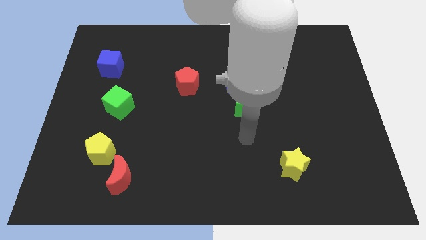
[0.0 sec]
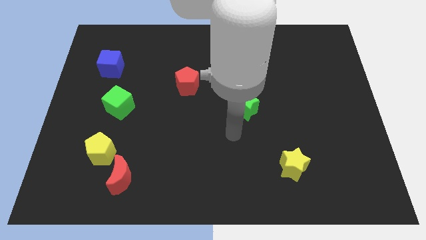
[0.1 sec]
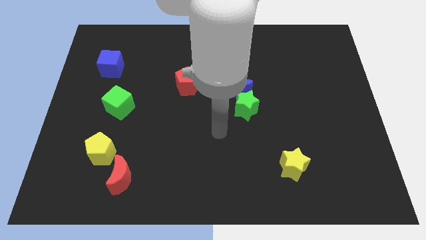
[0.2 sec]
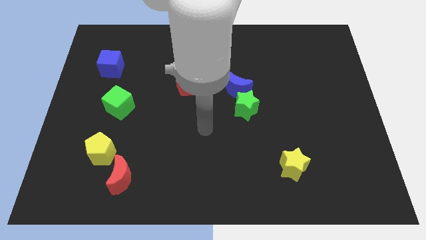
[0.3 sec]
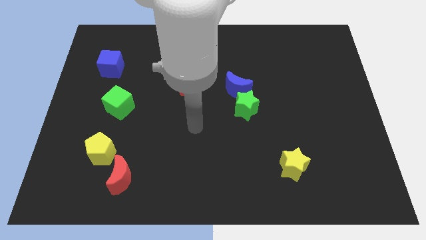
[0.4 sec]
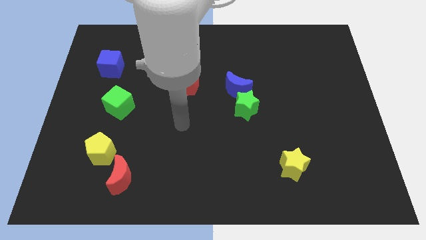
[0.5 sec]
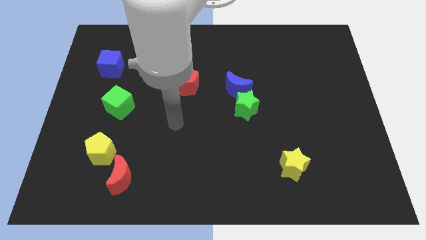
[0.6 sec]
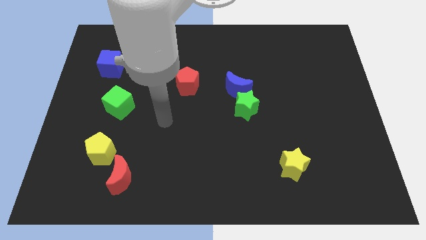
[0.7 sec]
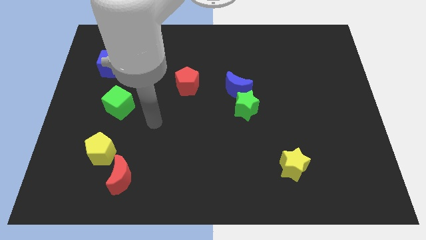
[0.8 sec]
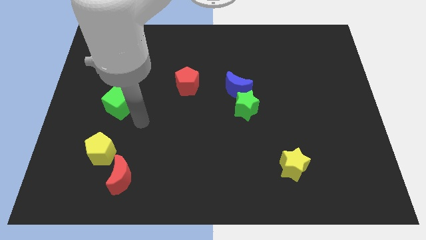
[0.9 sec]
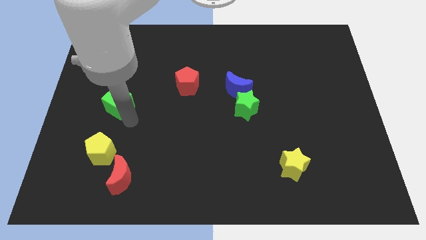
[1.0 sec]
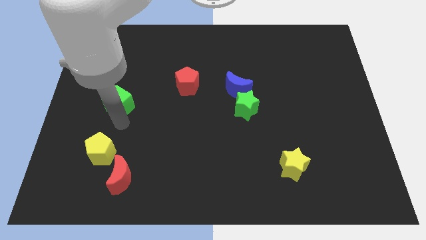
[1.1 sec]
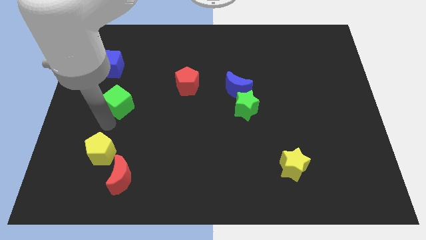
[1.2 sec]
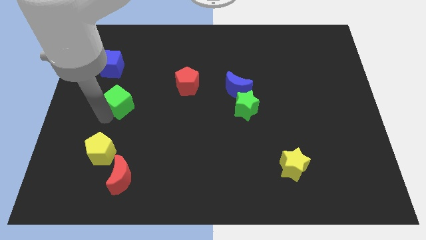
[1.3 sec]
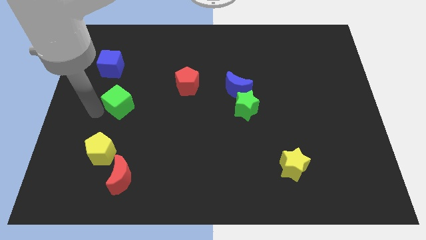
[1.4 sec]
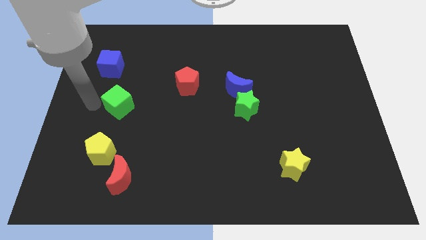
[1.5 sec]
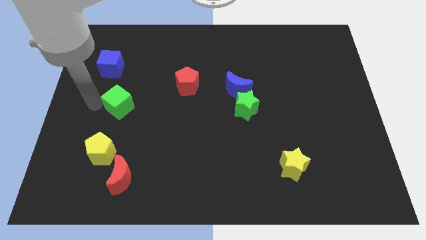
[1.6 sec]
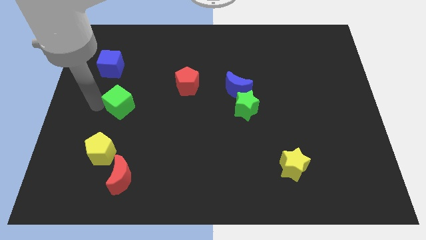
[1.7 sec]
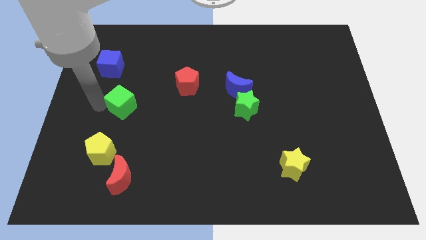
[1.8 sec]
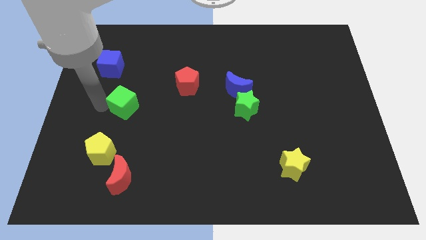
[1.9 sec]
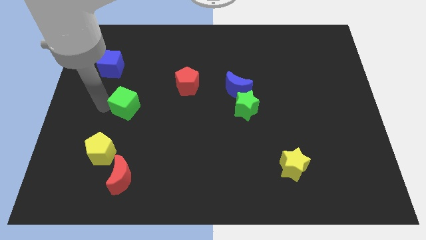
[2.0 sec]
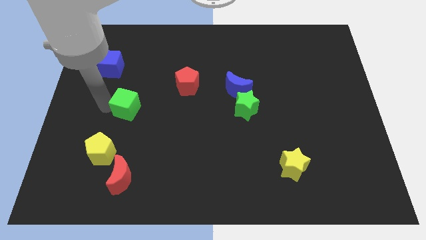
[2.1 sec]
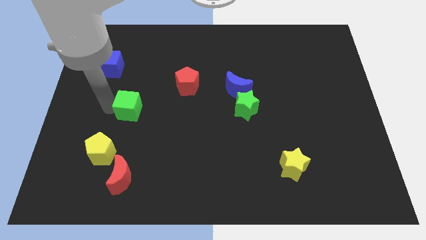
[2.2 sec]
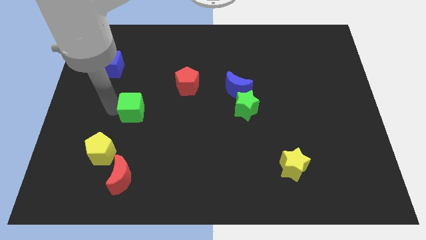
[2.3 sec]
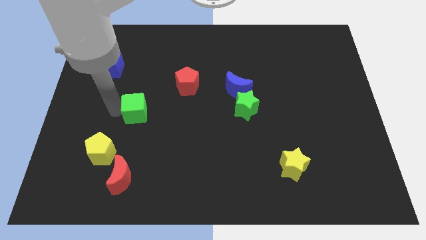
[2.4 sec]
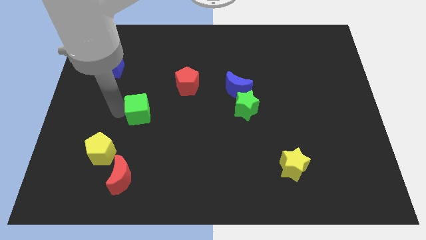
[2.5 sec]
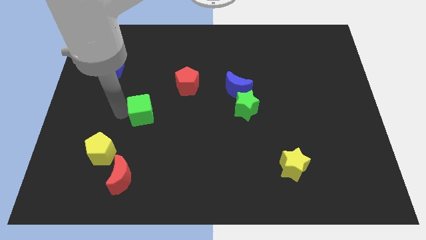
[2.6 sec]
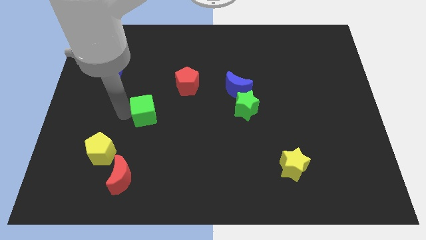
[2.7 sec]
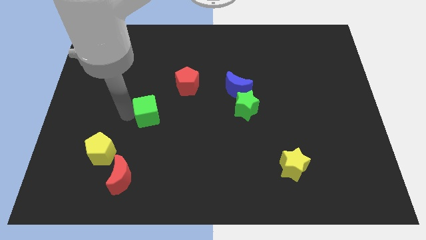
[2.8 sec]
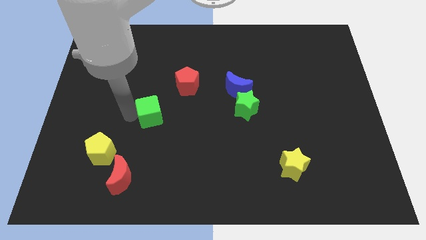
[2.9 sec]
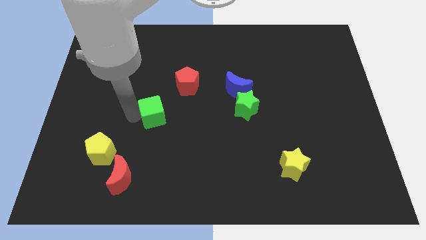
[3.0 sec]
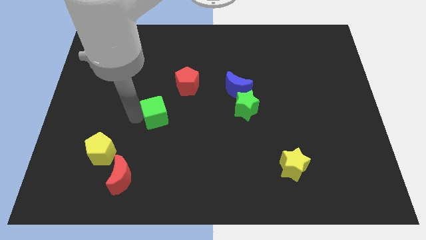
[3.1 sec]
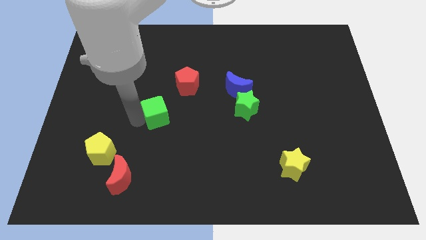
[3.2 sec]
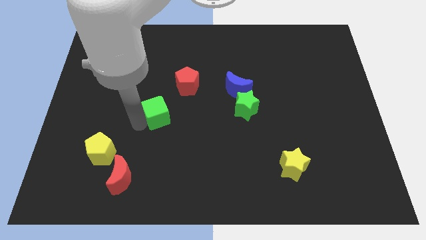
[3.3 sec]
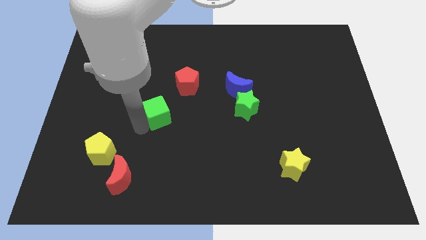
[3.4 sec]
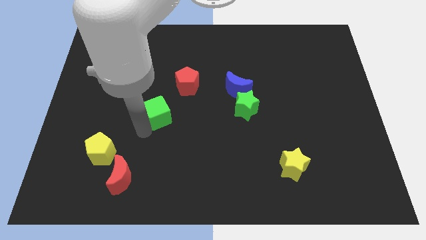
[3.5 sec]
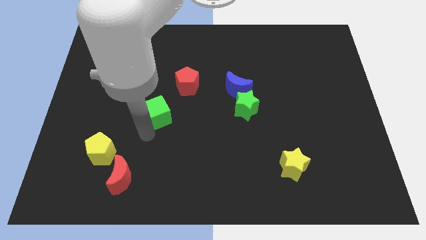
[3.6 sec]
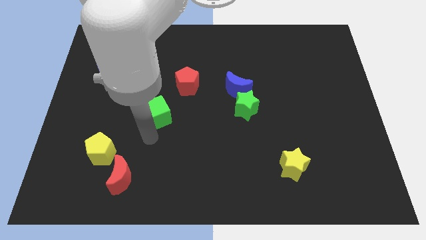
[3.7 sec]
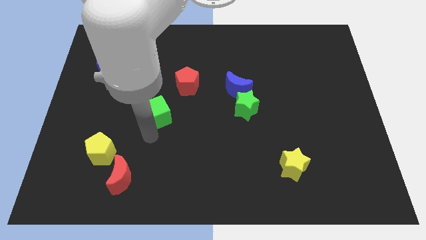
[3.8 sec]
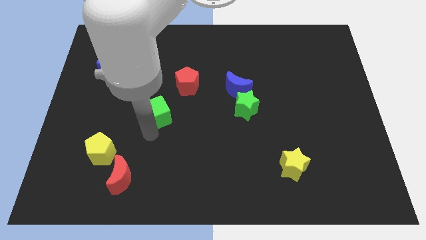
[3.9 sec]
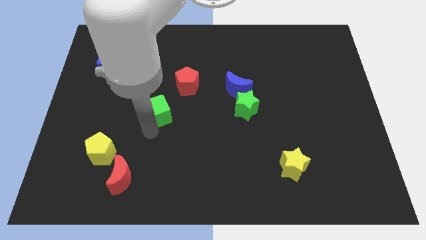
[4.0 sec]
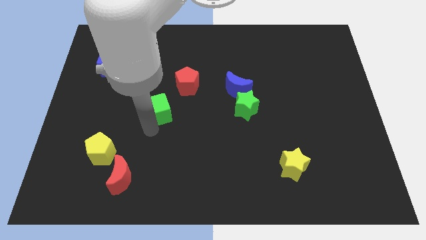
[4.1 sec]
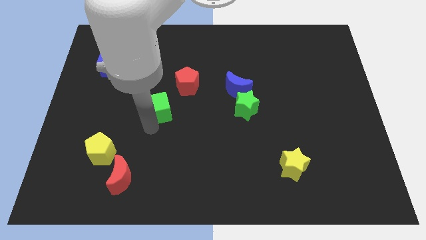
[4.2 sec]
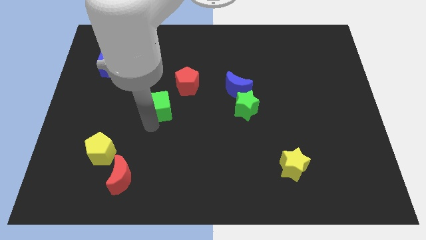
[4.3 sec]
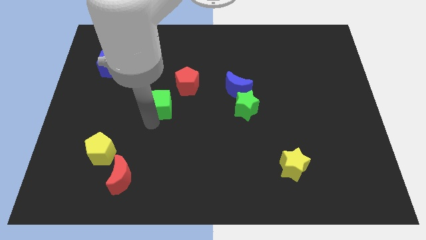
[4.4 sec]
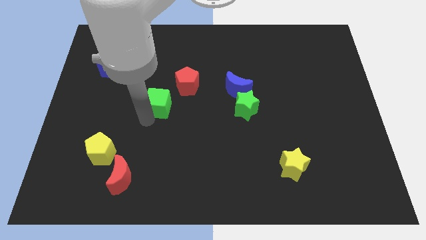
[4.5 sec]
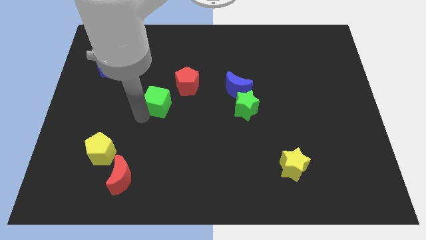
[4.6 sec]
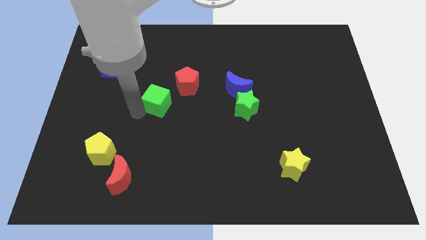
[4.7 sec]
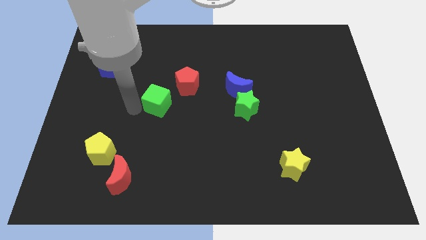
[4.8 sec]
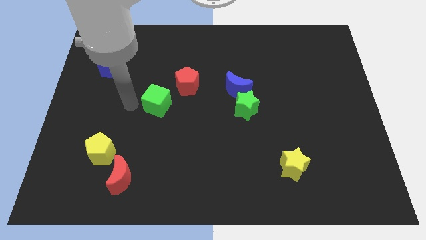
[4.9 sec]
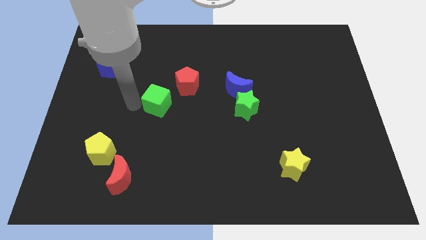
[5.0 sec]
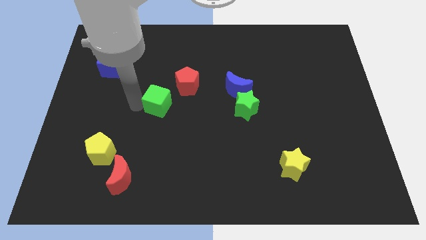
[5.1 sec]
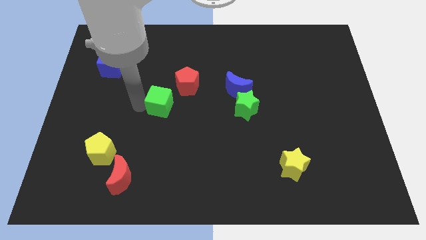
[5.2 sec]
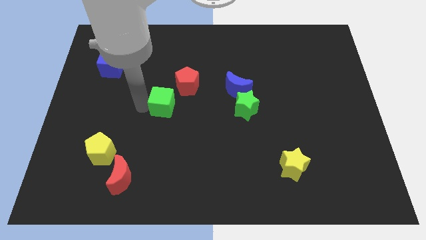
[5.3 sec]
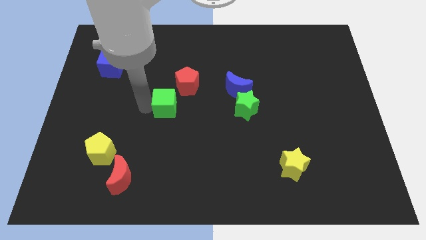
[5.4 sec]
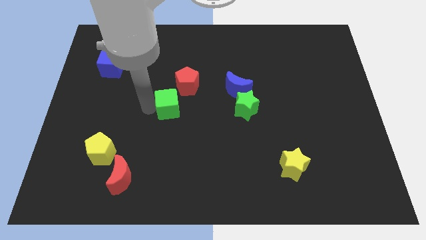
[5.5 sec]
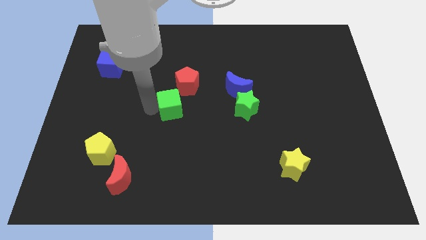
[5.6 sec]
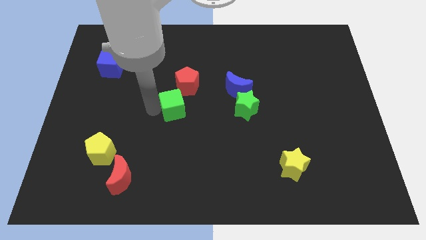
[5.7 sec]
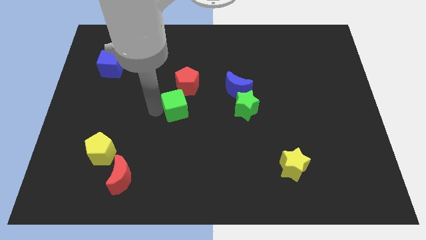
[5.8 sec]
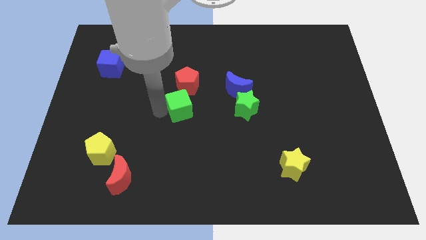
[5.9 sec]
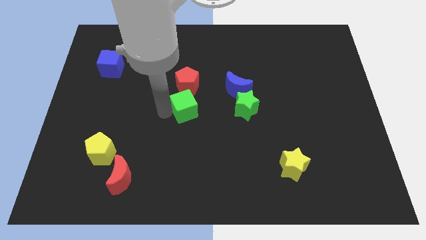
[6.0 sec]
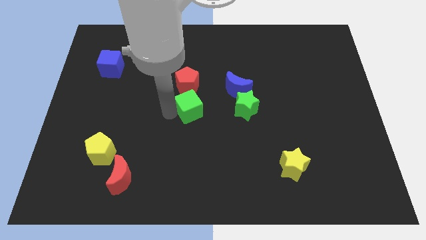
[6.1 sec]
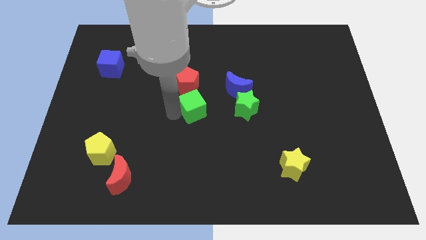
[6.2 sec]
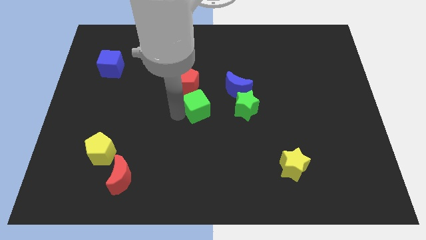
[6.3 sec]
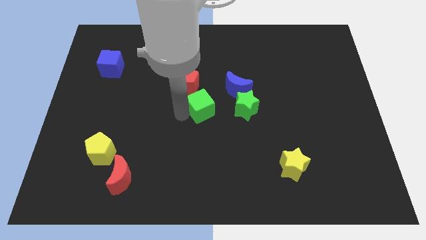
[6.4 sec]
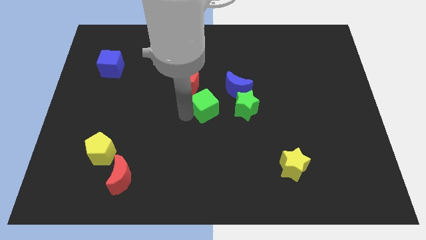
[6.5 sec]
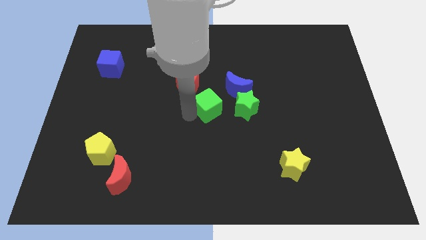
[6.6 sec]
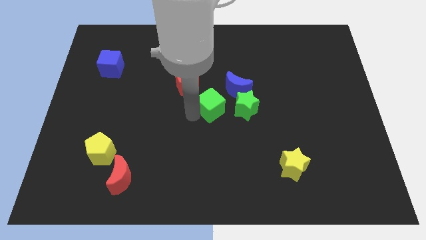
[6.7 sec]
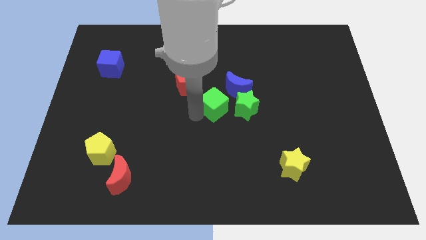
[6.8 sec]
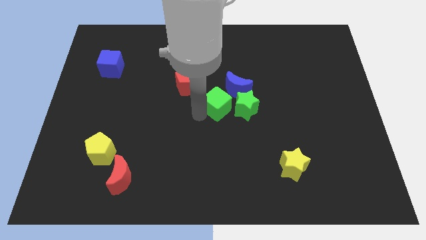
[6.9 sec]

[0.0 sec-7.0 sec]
push the green cube diagonally up and to the left of the green star
